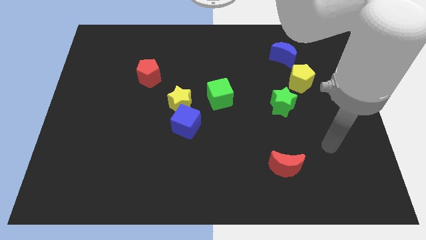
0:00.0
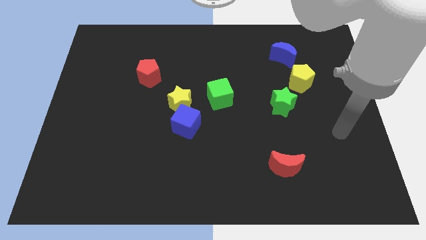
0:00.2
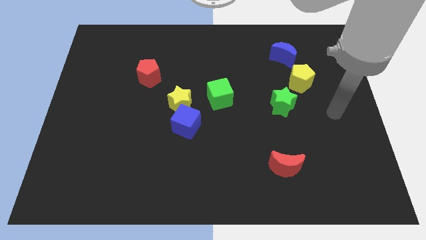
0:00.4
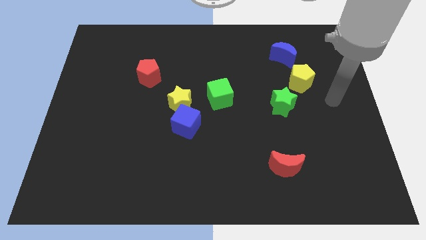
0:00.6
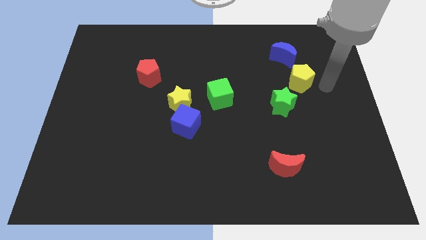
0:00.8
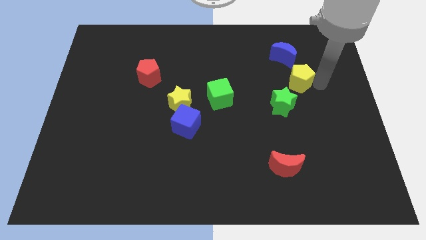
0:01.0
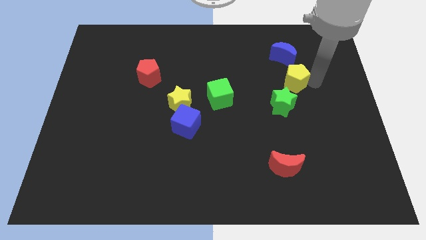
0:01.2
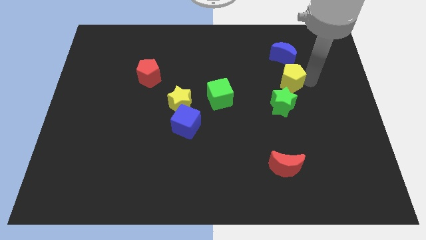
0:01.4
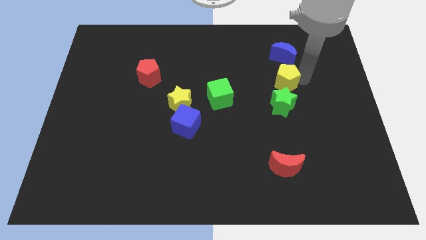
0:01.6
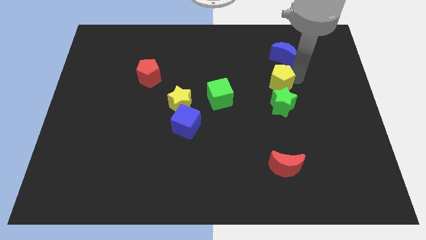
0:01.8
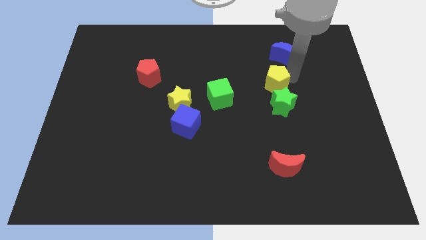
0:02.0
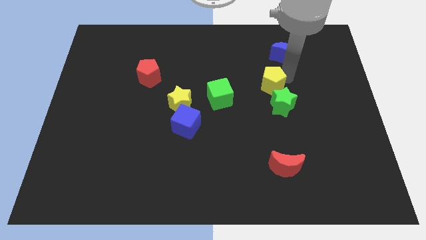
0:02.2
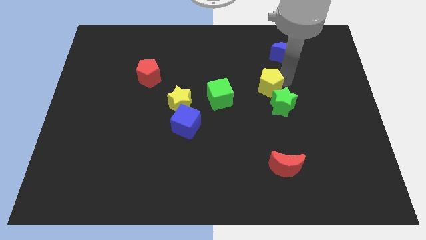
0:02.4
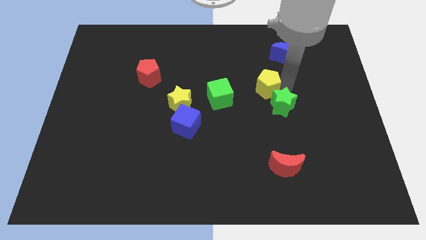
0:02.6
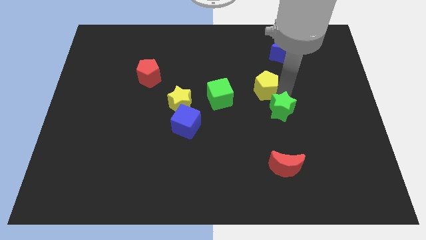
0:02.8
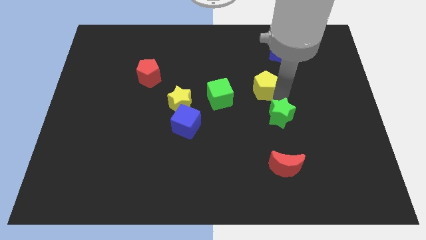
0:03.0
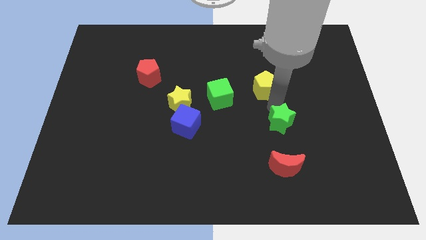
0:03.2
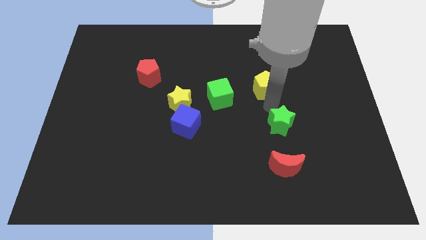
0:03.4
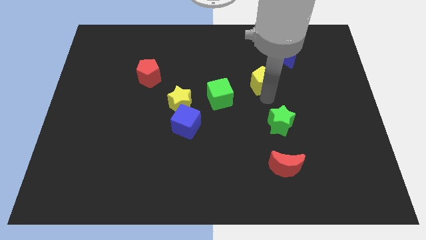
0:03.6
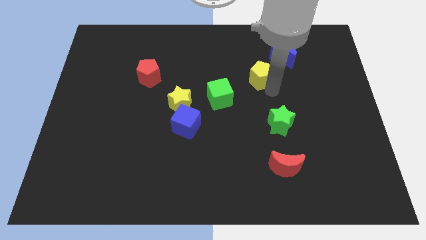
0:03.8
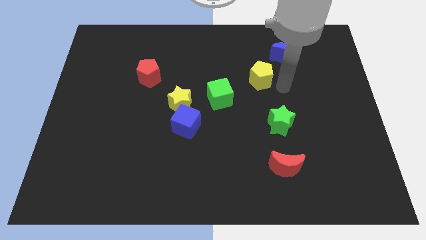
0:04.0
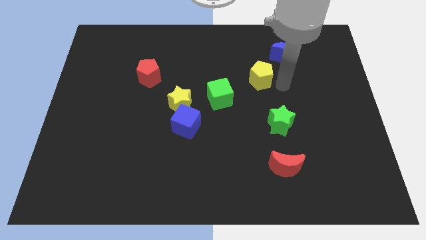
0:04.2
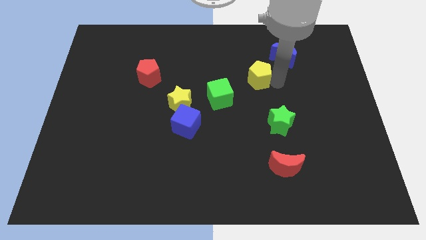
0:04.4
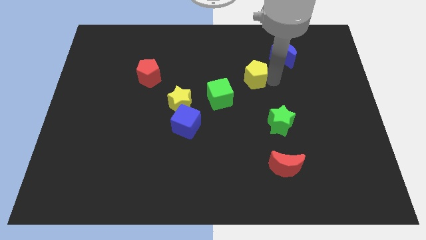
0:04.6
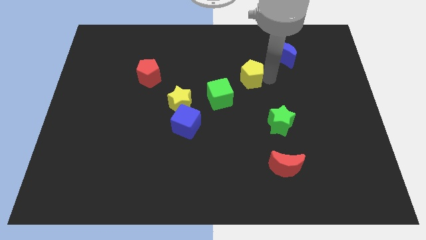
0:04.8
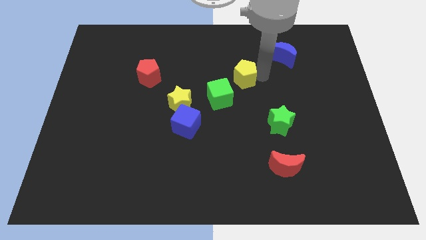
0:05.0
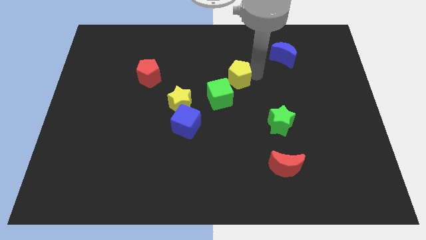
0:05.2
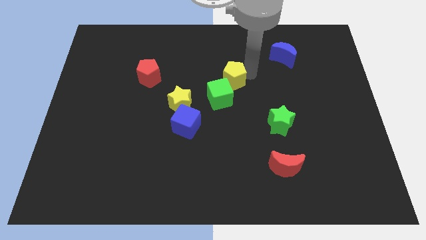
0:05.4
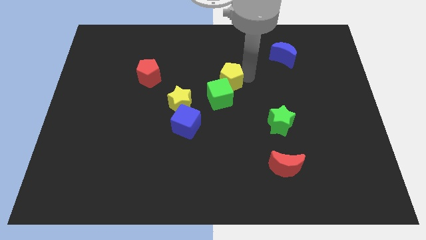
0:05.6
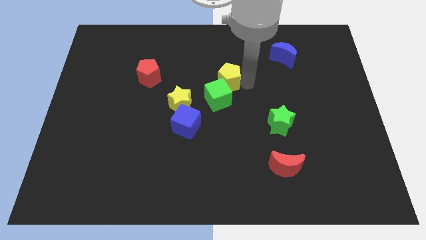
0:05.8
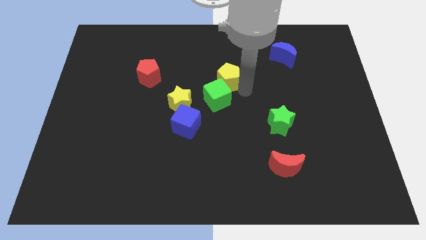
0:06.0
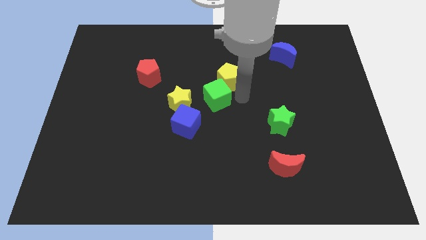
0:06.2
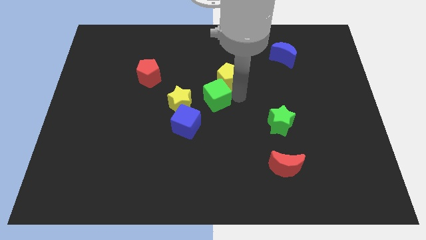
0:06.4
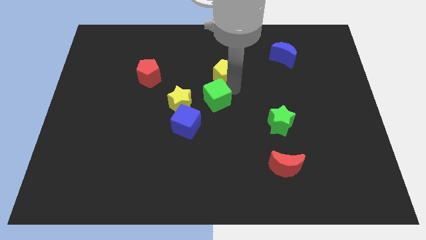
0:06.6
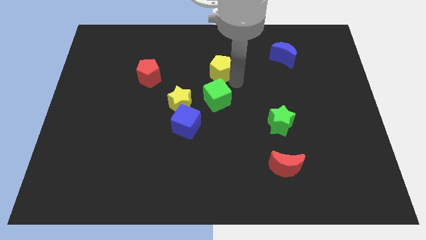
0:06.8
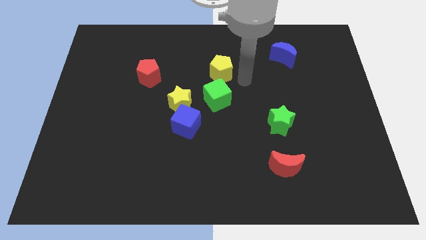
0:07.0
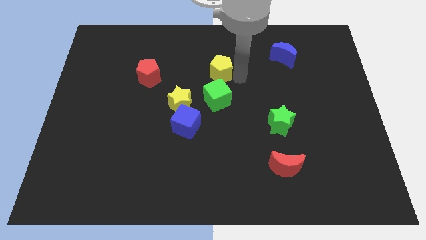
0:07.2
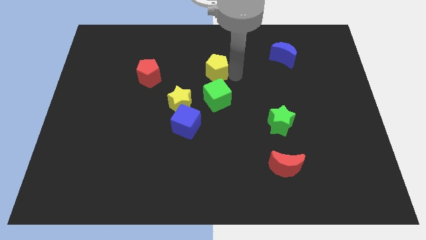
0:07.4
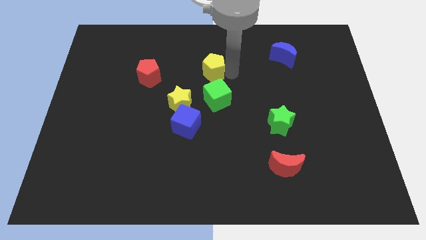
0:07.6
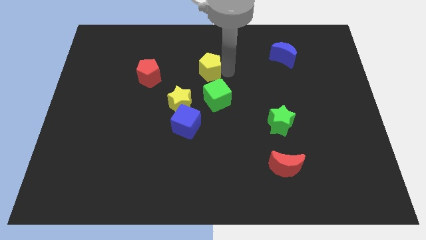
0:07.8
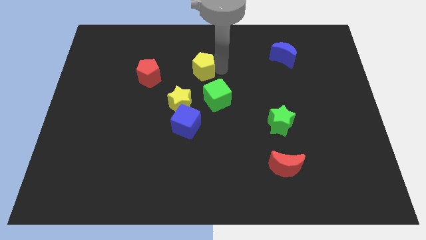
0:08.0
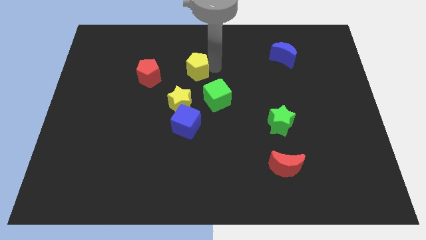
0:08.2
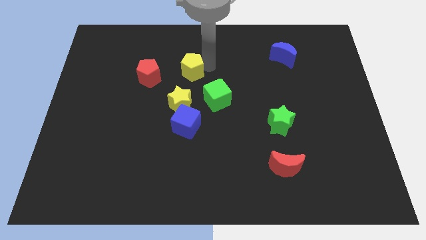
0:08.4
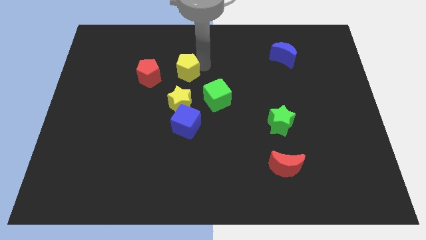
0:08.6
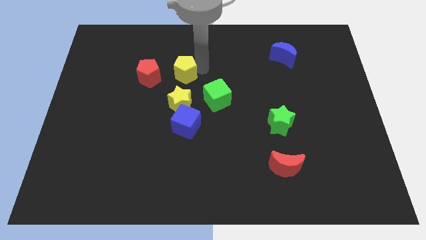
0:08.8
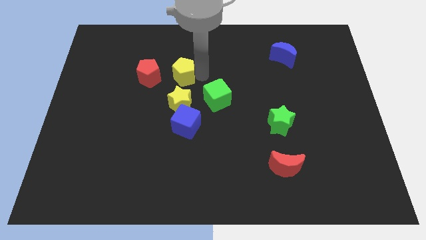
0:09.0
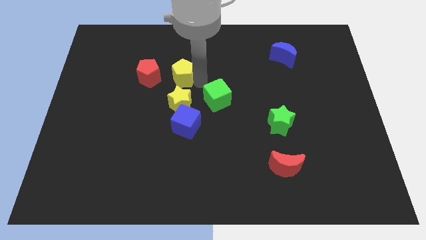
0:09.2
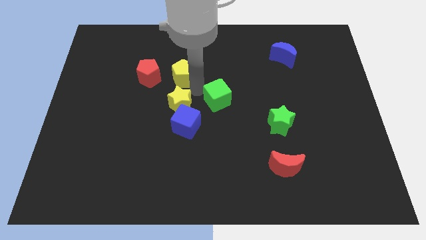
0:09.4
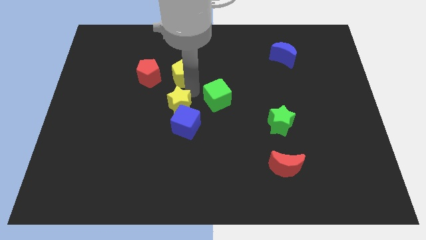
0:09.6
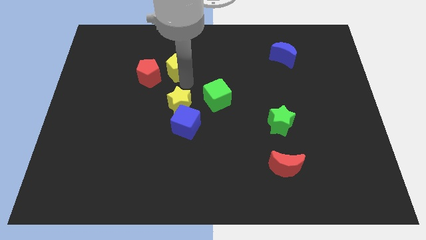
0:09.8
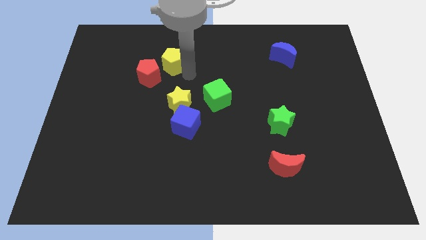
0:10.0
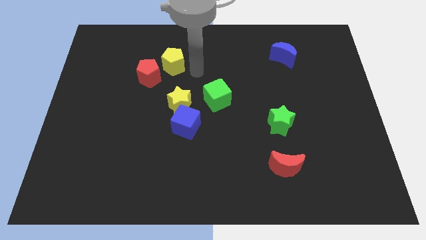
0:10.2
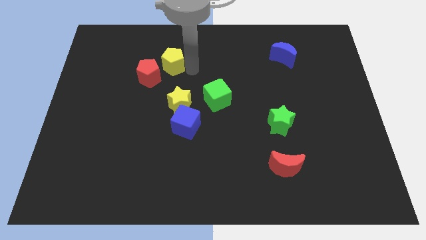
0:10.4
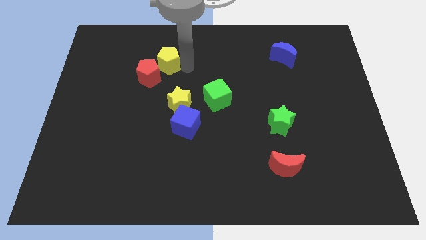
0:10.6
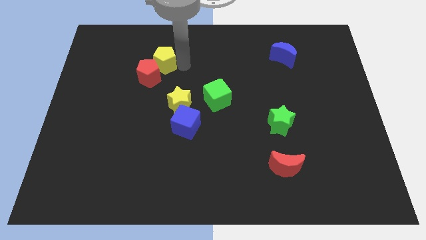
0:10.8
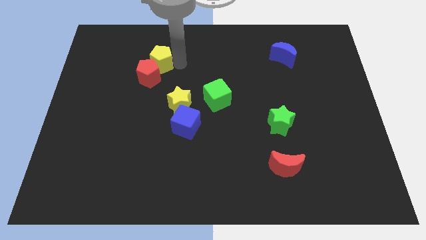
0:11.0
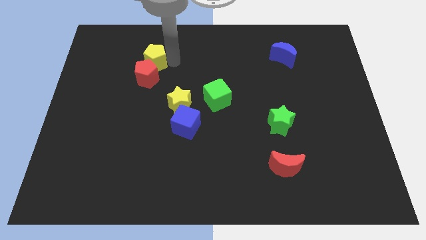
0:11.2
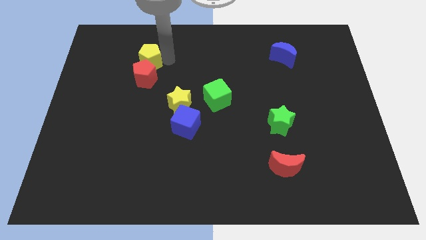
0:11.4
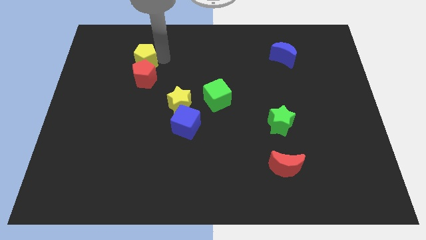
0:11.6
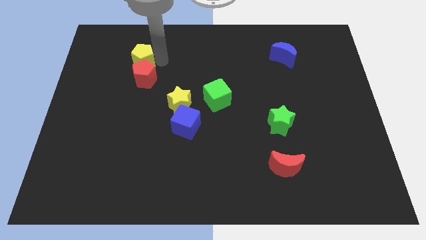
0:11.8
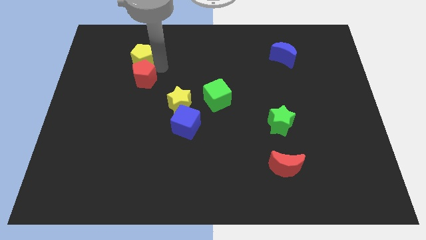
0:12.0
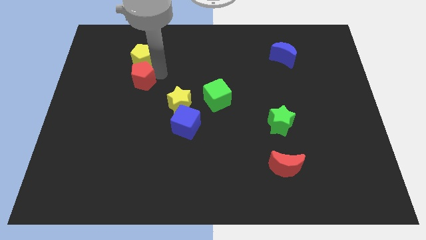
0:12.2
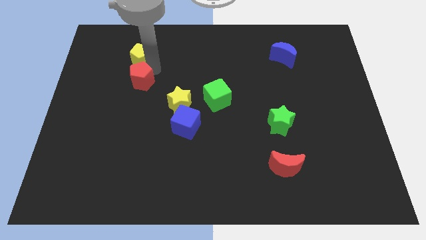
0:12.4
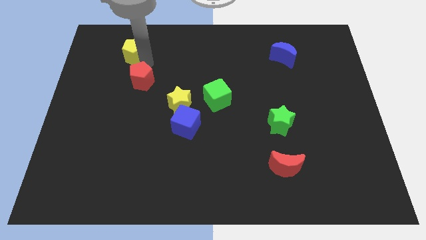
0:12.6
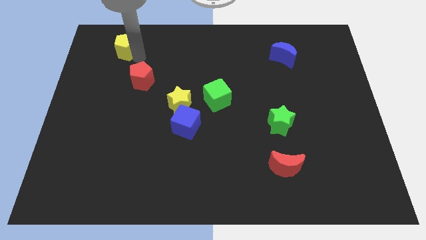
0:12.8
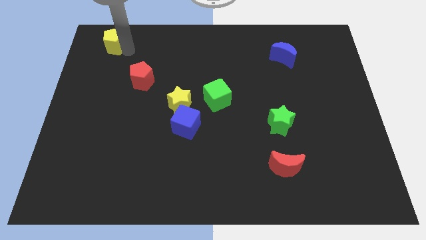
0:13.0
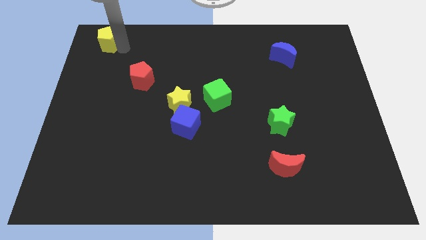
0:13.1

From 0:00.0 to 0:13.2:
slide the yellow pentagon to the top left
